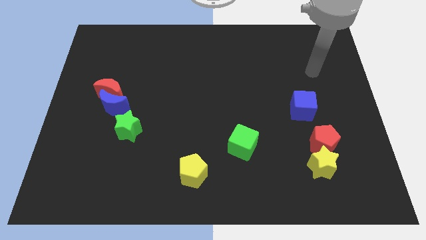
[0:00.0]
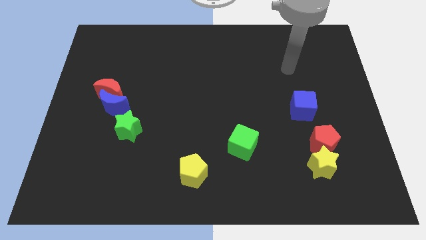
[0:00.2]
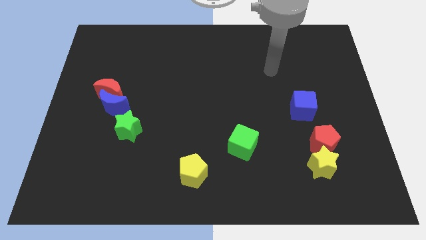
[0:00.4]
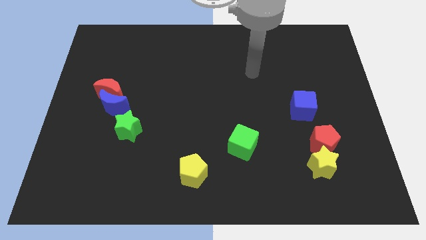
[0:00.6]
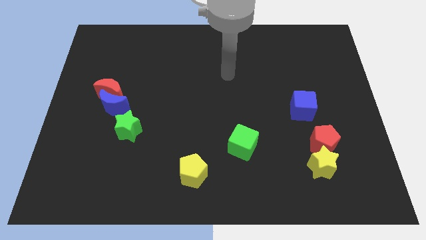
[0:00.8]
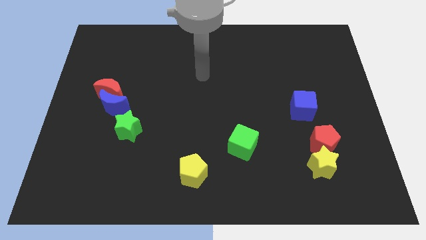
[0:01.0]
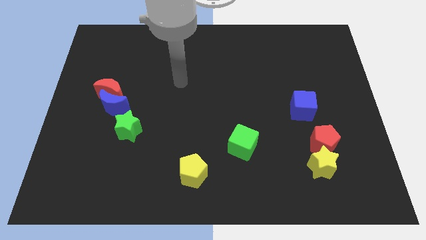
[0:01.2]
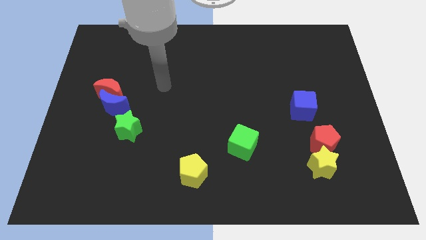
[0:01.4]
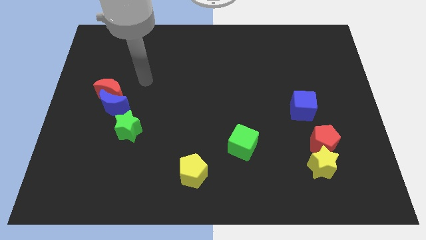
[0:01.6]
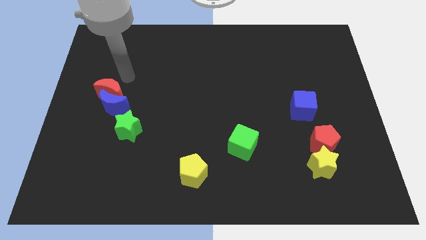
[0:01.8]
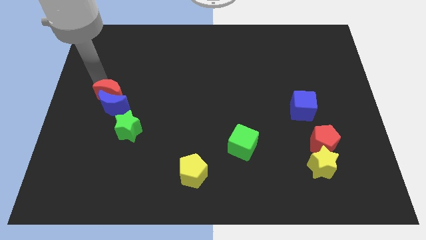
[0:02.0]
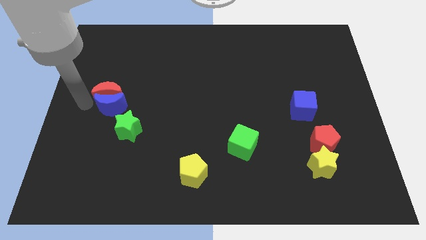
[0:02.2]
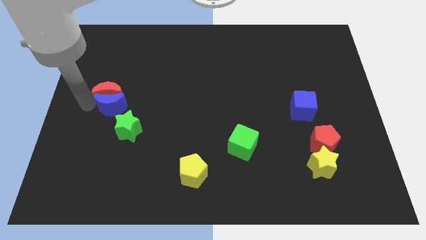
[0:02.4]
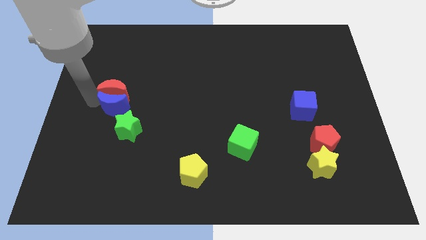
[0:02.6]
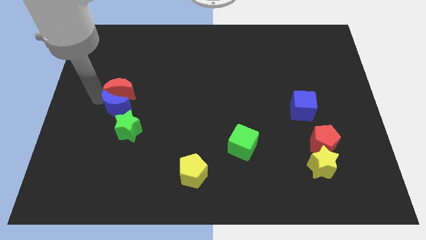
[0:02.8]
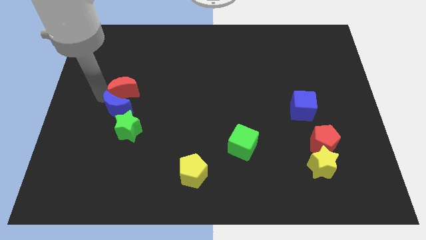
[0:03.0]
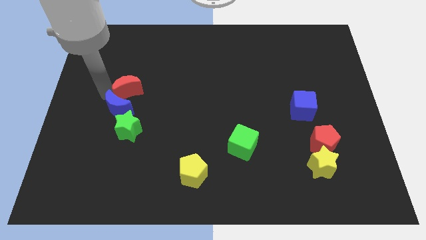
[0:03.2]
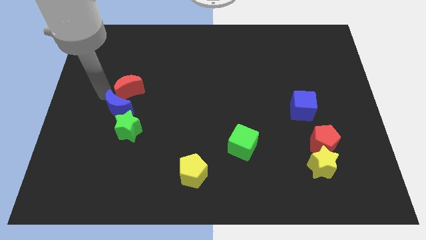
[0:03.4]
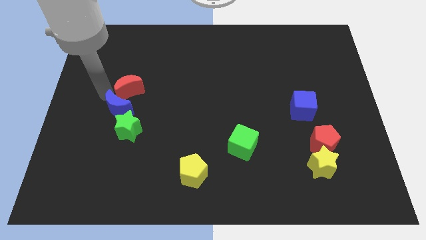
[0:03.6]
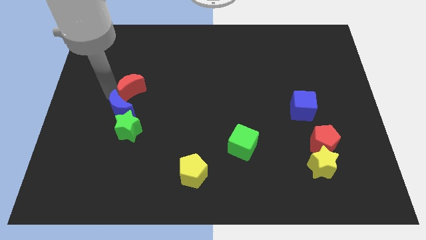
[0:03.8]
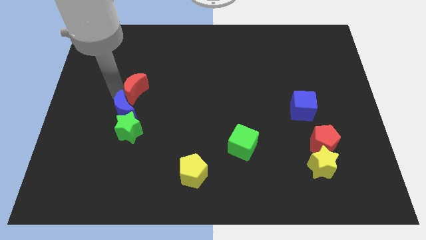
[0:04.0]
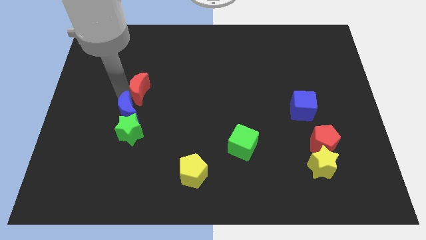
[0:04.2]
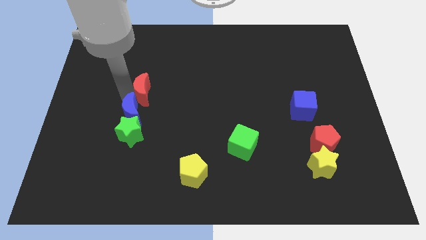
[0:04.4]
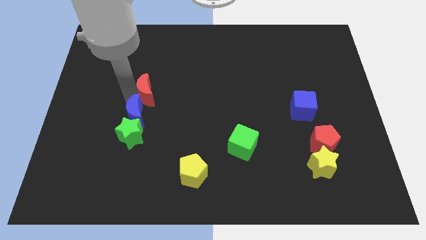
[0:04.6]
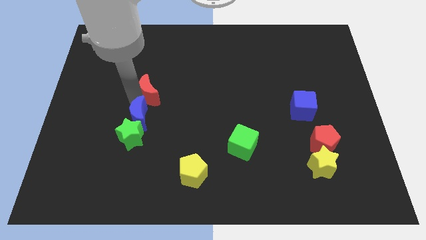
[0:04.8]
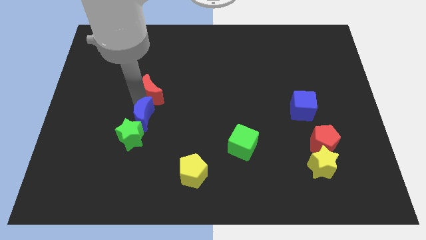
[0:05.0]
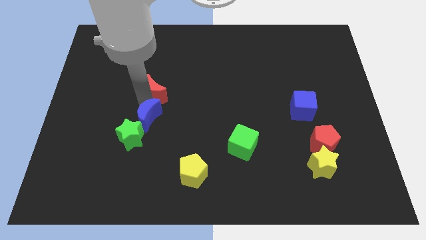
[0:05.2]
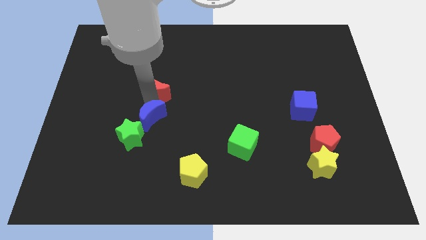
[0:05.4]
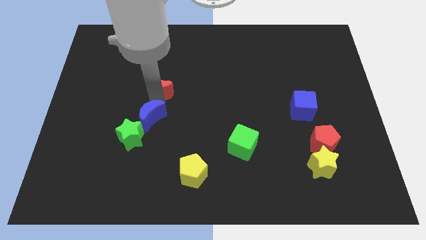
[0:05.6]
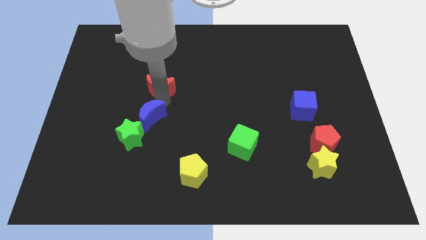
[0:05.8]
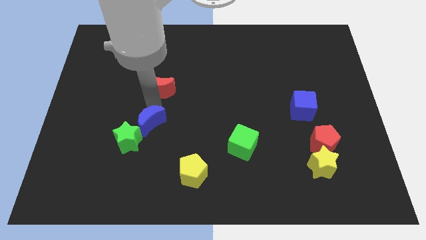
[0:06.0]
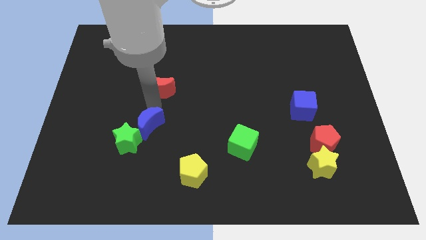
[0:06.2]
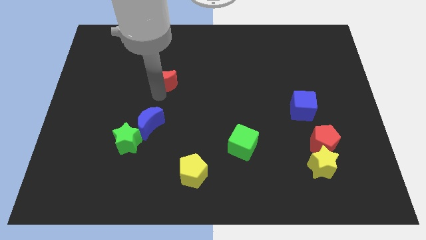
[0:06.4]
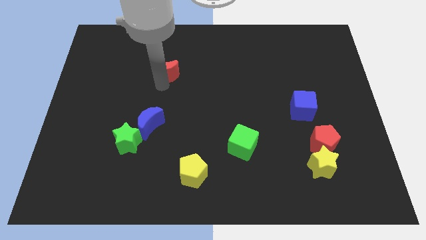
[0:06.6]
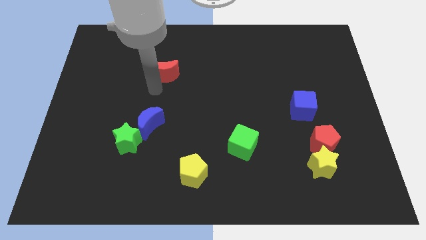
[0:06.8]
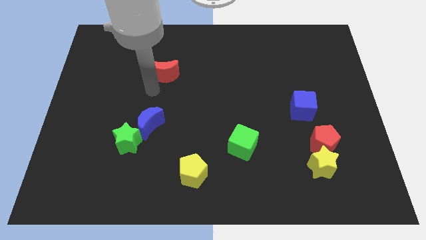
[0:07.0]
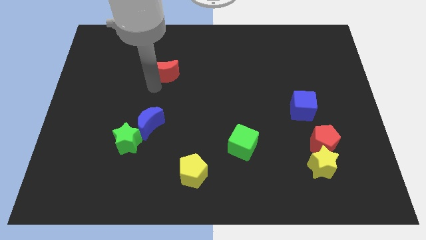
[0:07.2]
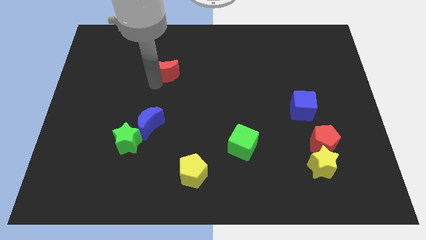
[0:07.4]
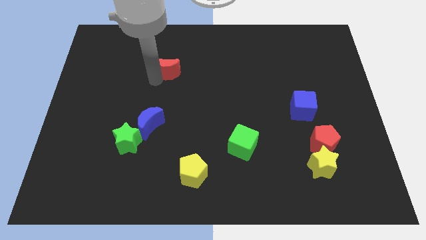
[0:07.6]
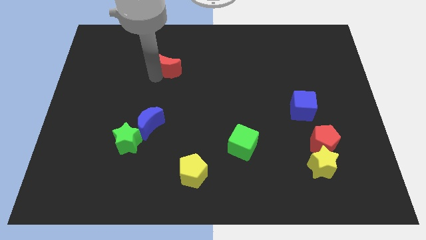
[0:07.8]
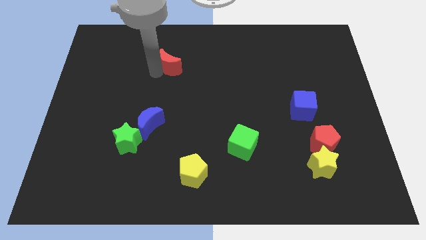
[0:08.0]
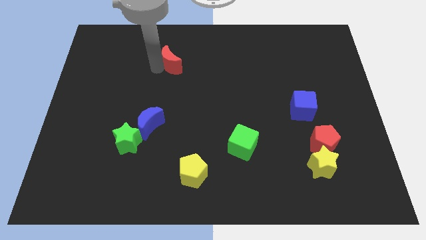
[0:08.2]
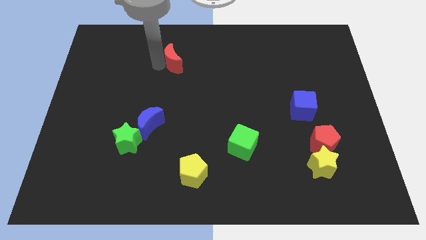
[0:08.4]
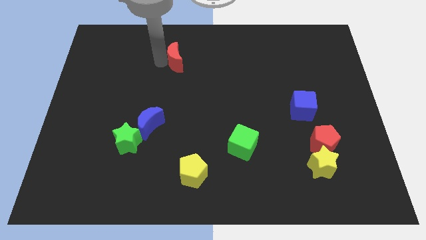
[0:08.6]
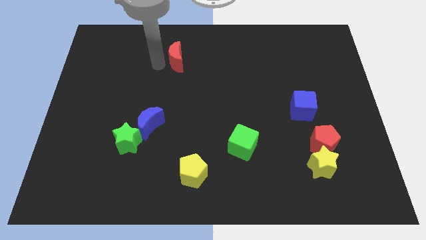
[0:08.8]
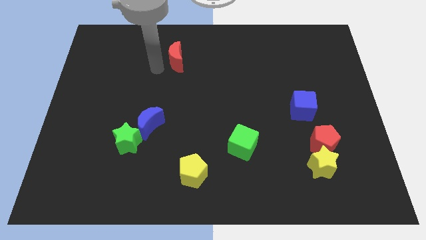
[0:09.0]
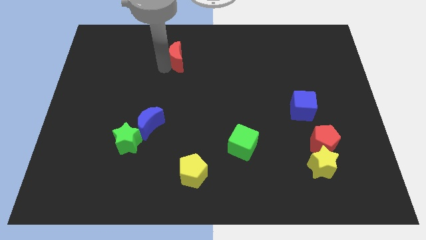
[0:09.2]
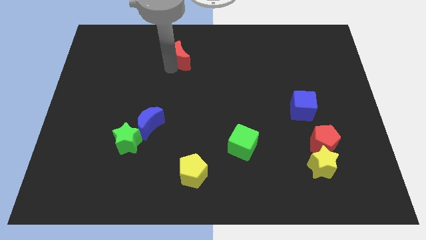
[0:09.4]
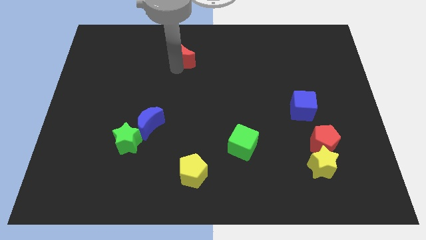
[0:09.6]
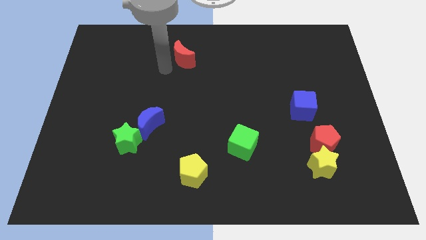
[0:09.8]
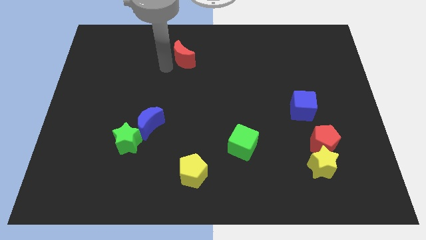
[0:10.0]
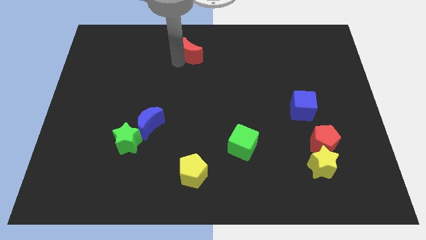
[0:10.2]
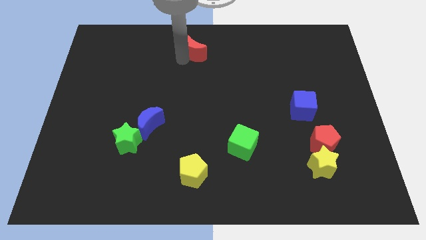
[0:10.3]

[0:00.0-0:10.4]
put the red moon to the top

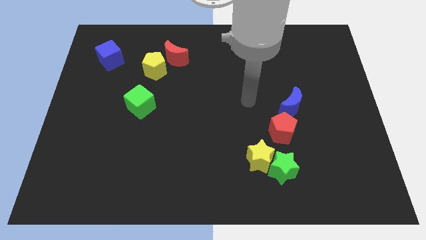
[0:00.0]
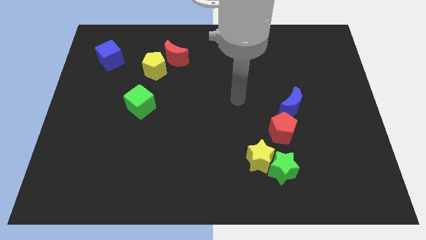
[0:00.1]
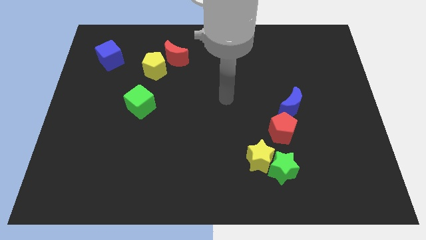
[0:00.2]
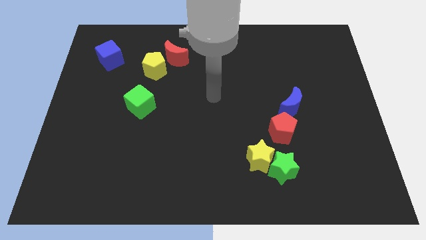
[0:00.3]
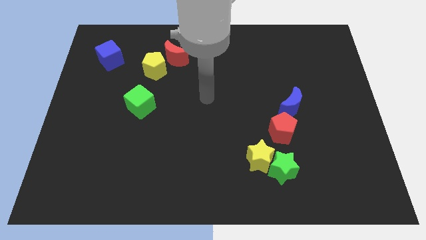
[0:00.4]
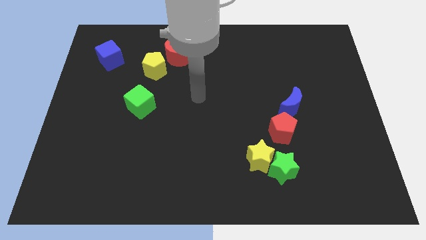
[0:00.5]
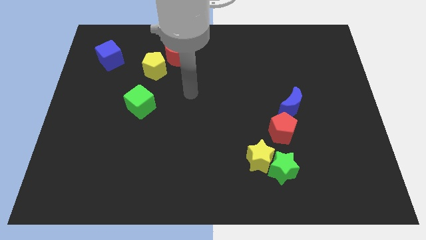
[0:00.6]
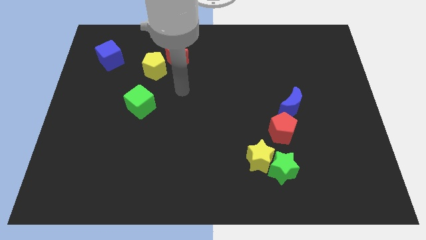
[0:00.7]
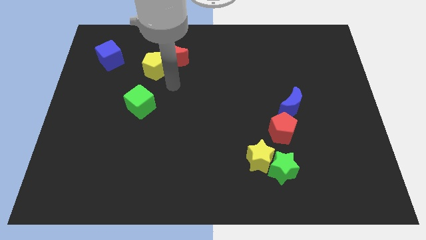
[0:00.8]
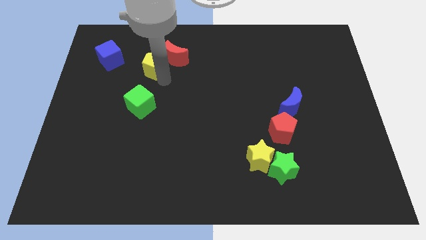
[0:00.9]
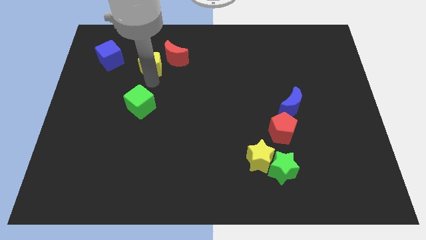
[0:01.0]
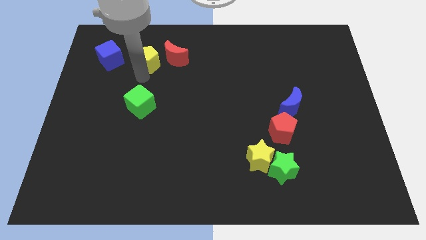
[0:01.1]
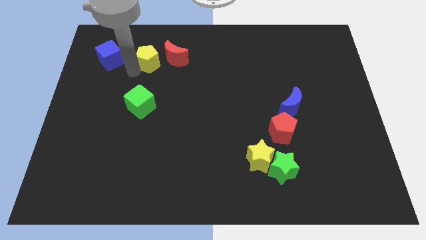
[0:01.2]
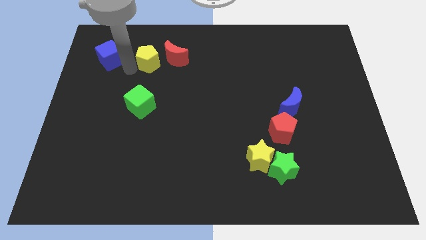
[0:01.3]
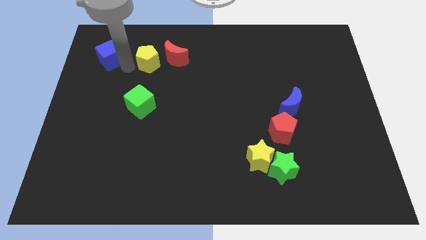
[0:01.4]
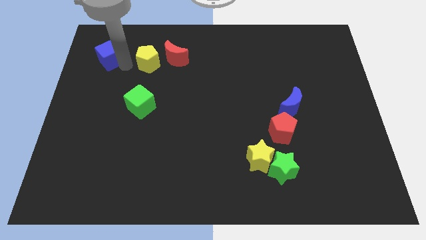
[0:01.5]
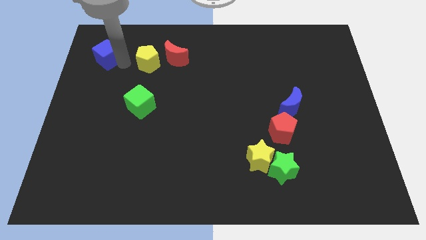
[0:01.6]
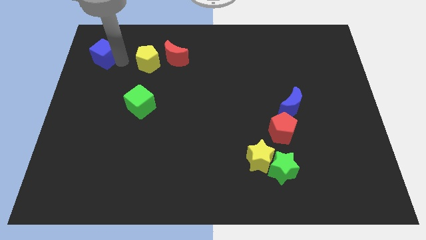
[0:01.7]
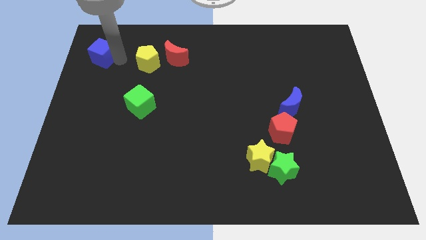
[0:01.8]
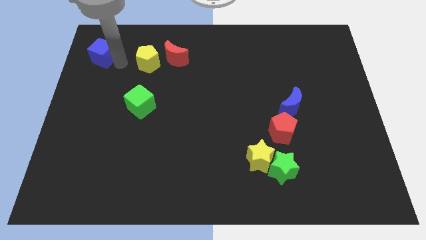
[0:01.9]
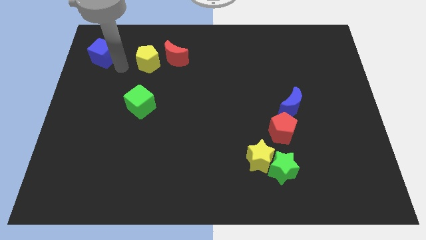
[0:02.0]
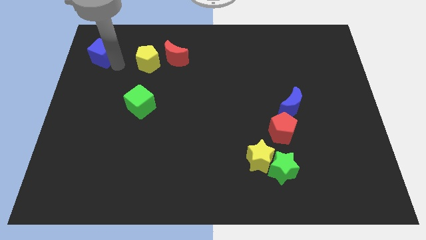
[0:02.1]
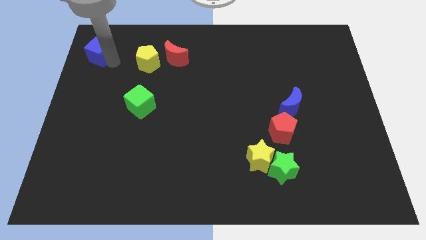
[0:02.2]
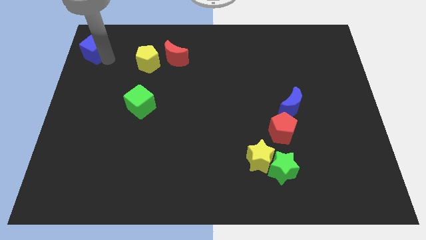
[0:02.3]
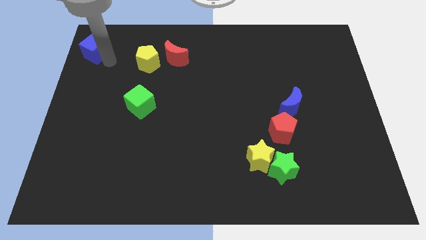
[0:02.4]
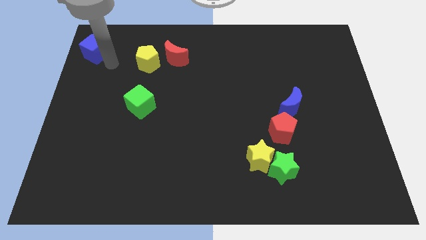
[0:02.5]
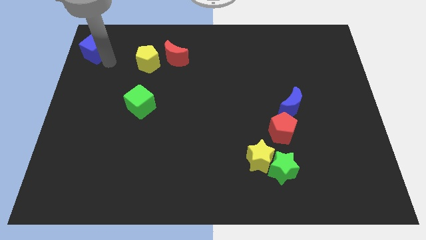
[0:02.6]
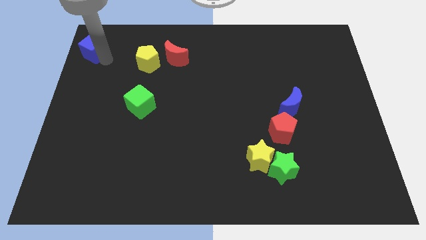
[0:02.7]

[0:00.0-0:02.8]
push the blue cube to the upper left corner
